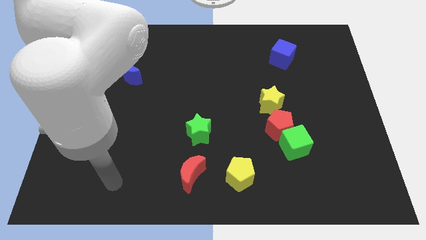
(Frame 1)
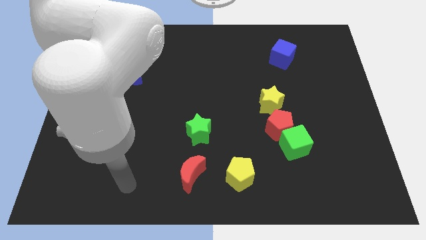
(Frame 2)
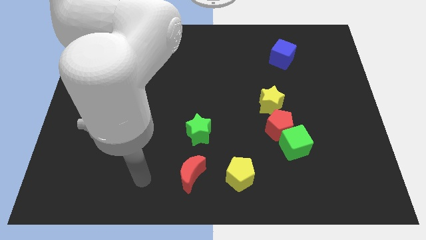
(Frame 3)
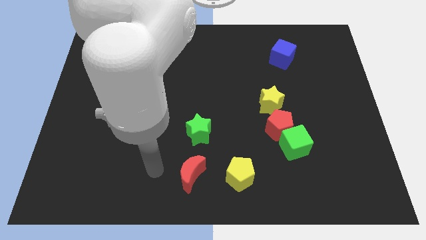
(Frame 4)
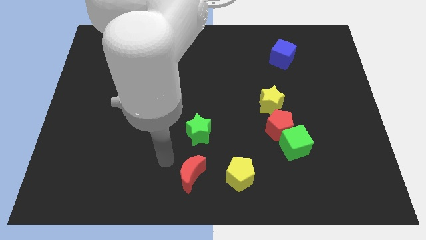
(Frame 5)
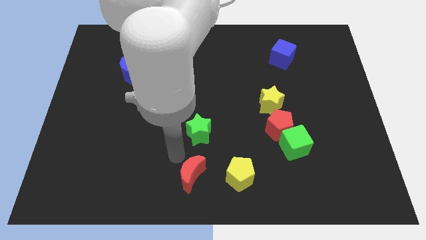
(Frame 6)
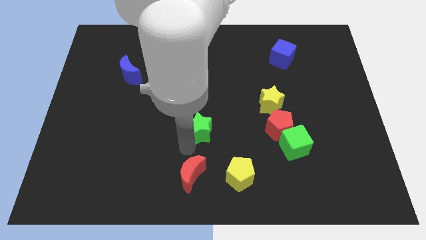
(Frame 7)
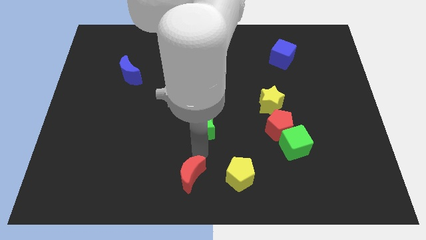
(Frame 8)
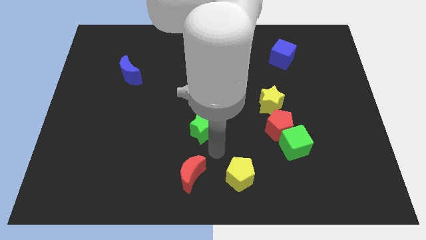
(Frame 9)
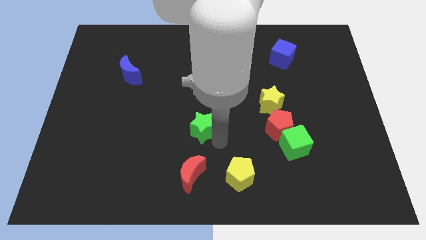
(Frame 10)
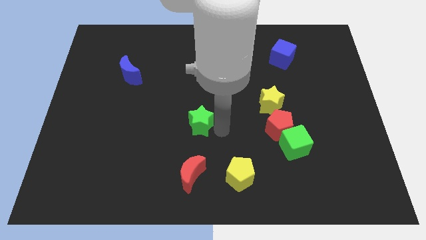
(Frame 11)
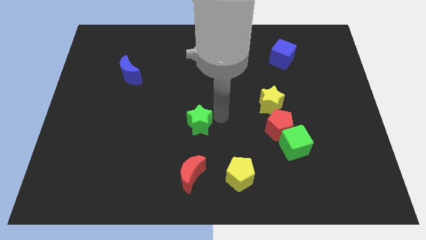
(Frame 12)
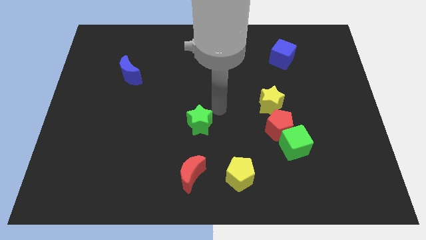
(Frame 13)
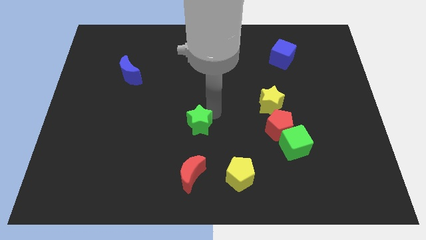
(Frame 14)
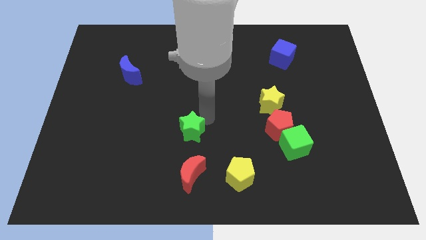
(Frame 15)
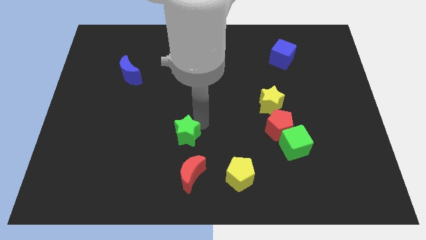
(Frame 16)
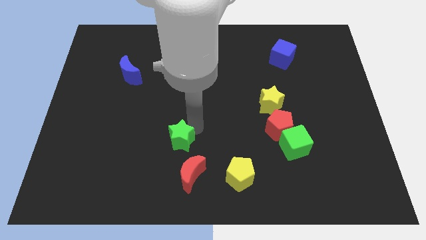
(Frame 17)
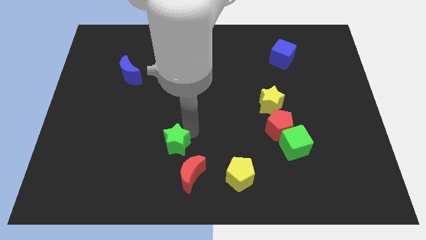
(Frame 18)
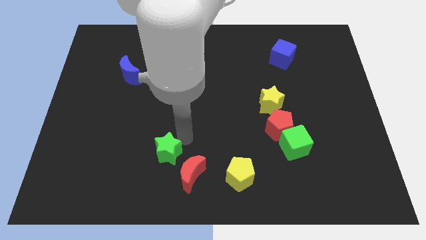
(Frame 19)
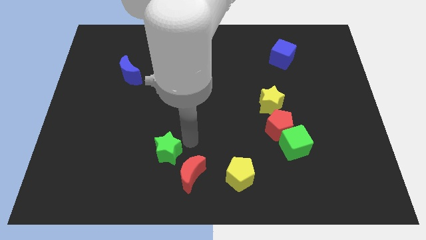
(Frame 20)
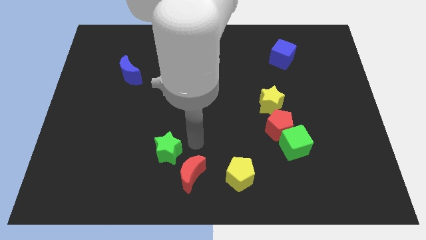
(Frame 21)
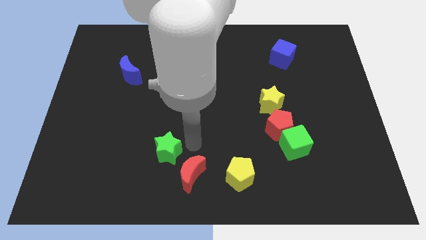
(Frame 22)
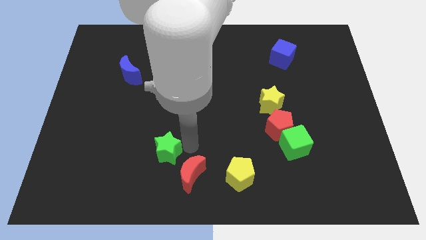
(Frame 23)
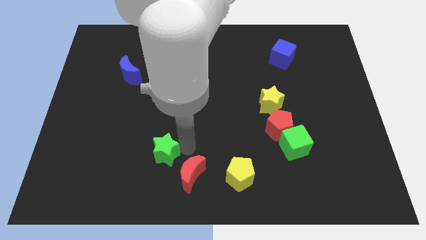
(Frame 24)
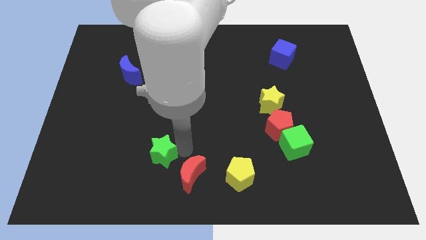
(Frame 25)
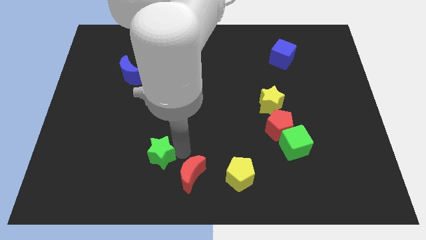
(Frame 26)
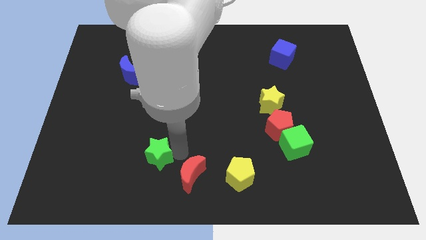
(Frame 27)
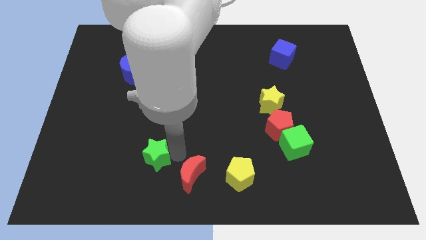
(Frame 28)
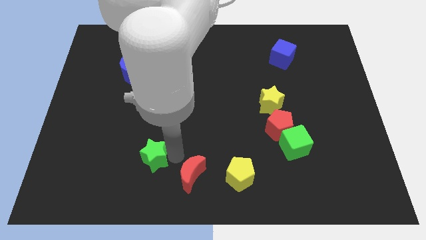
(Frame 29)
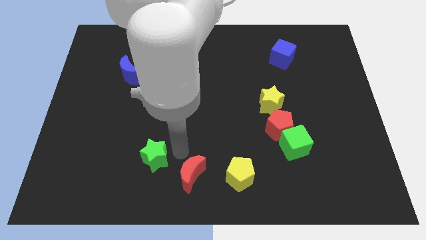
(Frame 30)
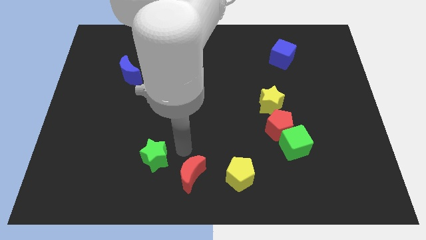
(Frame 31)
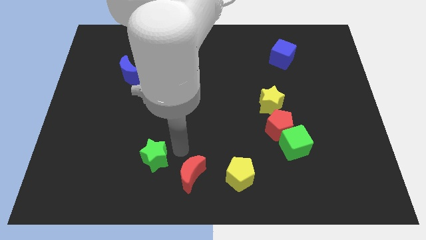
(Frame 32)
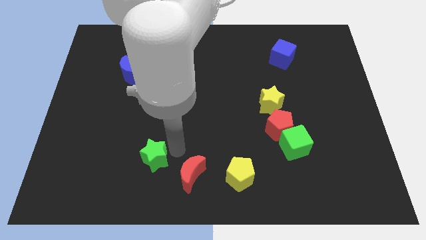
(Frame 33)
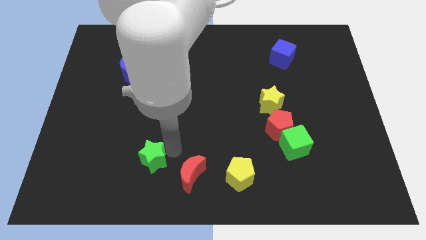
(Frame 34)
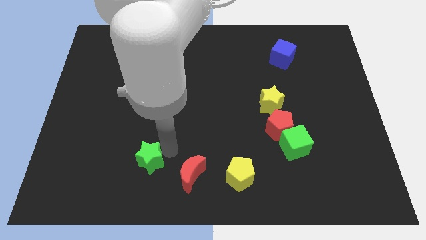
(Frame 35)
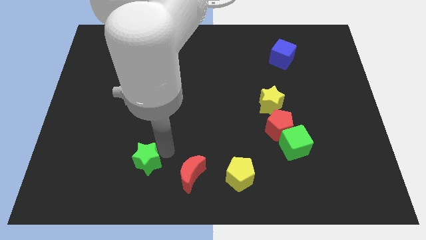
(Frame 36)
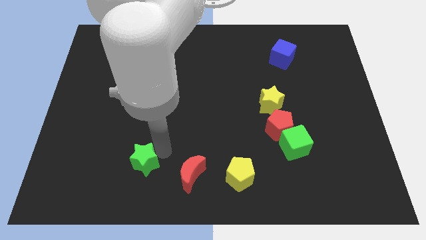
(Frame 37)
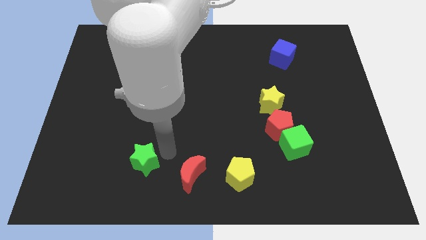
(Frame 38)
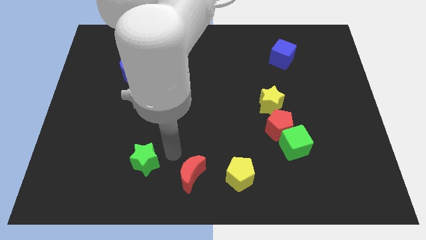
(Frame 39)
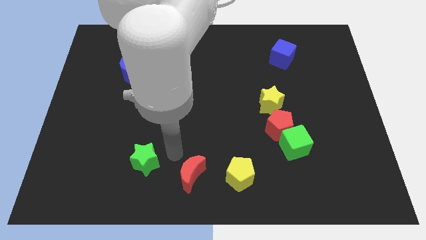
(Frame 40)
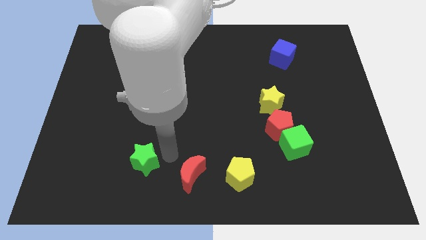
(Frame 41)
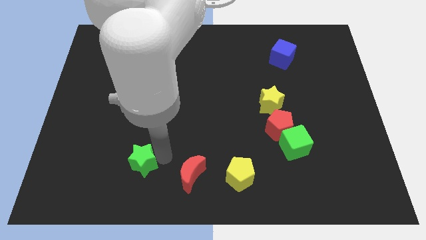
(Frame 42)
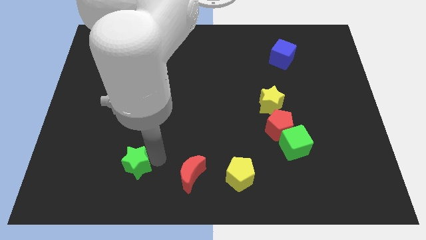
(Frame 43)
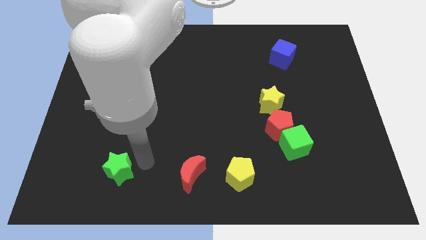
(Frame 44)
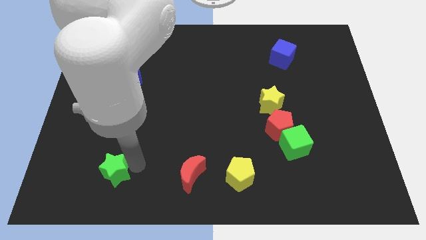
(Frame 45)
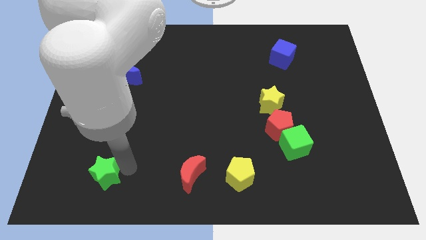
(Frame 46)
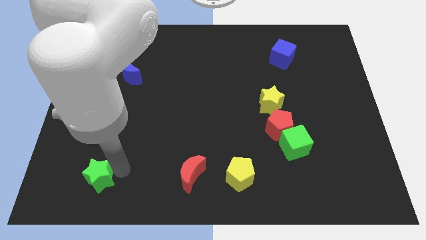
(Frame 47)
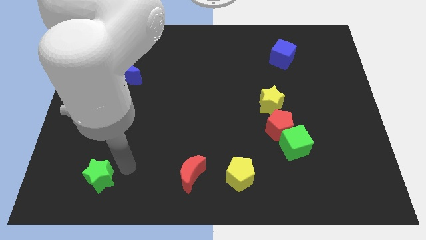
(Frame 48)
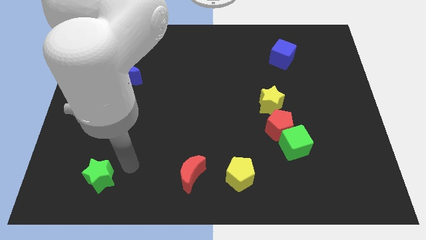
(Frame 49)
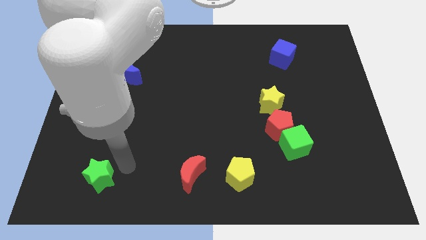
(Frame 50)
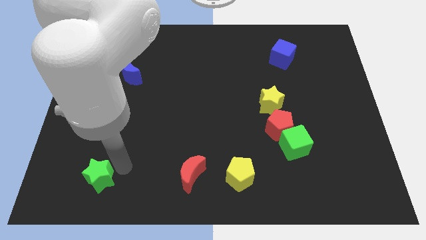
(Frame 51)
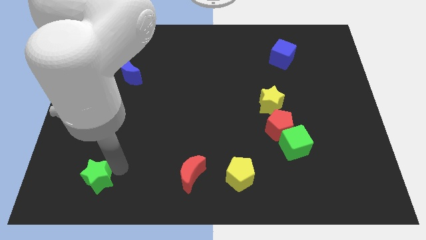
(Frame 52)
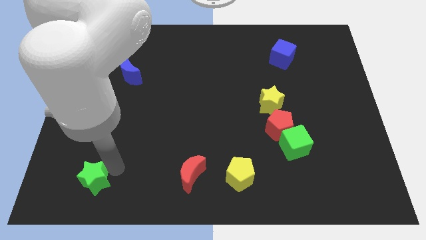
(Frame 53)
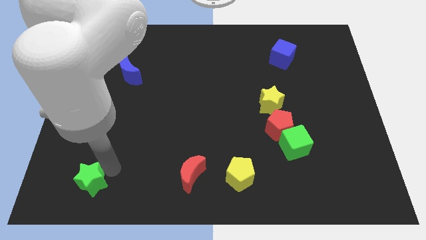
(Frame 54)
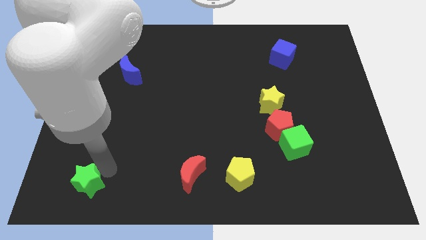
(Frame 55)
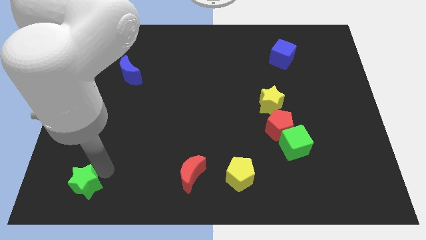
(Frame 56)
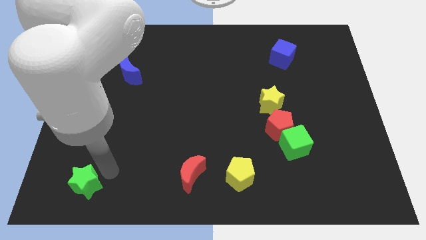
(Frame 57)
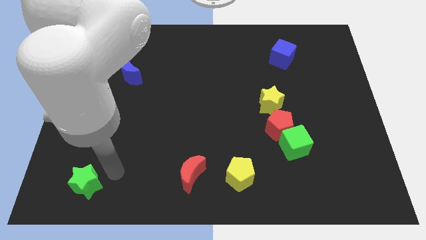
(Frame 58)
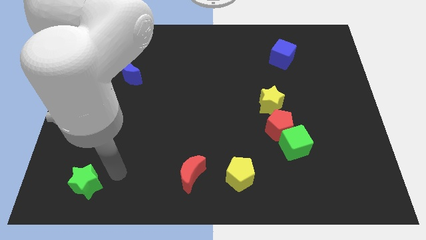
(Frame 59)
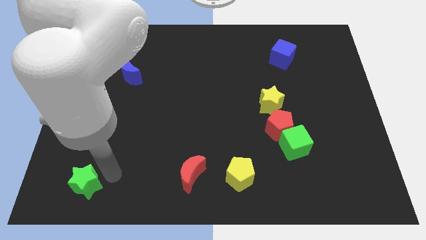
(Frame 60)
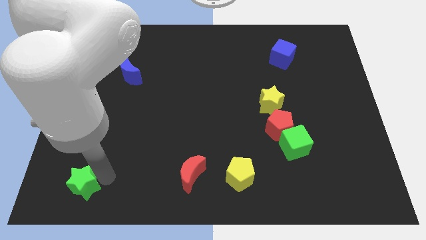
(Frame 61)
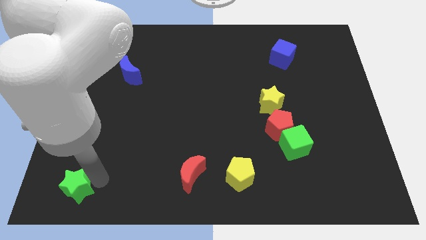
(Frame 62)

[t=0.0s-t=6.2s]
move the green star to the bottom left

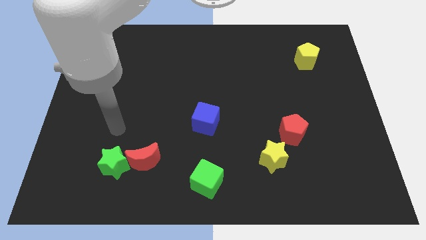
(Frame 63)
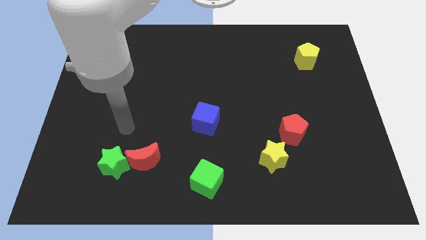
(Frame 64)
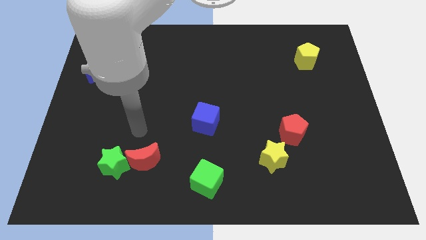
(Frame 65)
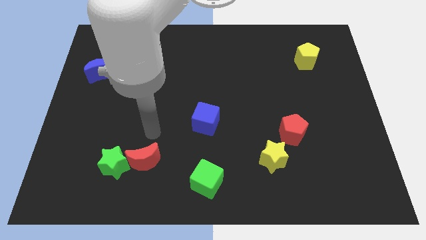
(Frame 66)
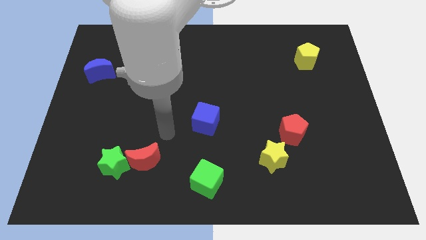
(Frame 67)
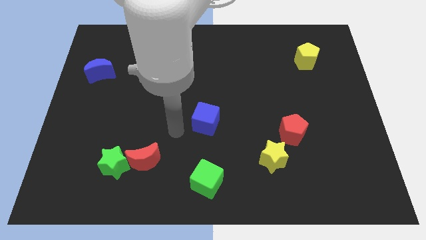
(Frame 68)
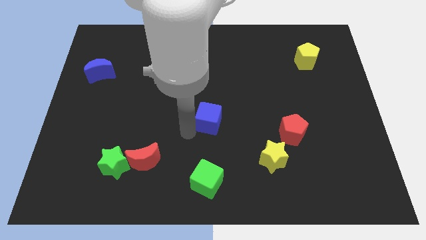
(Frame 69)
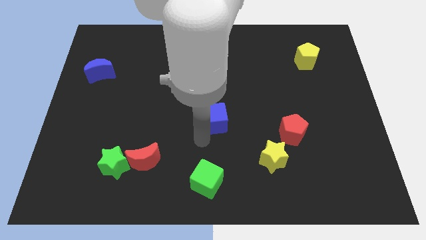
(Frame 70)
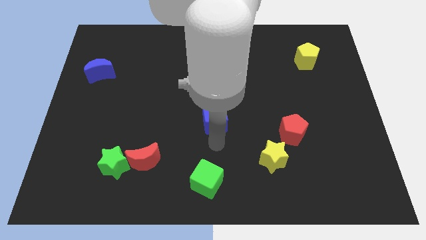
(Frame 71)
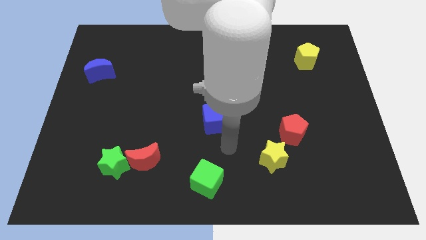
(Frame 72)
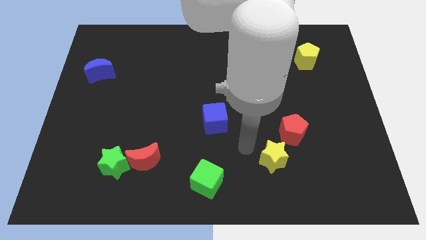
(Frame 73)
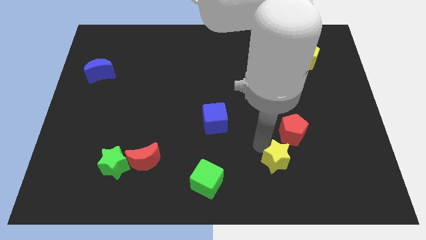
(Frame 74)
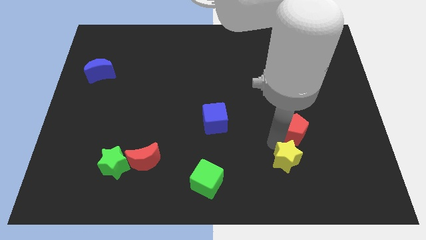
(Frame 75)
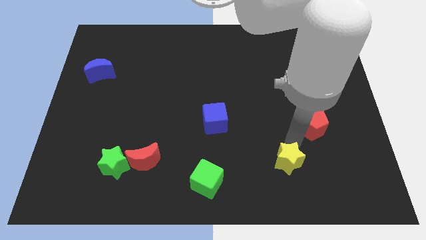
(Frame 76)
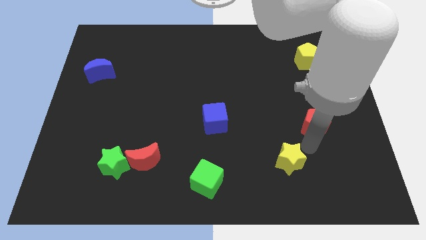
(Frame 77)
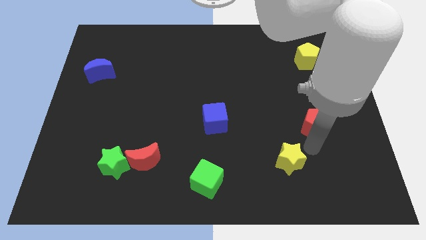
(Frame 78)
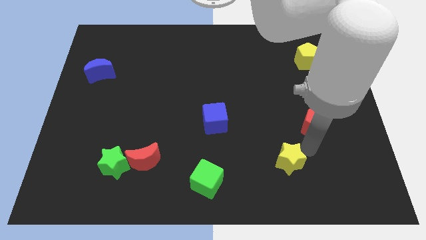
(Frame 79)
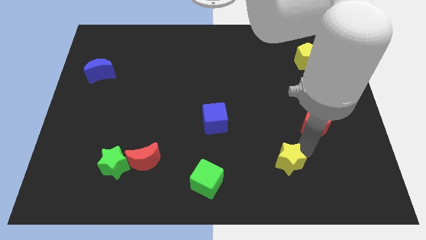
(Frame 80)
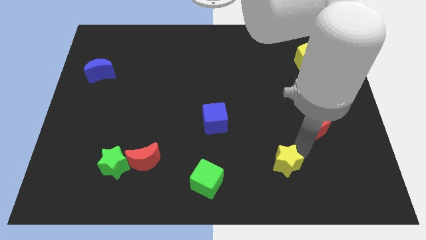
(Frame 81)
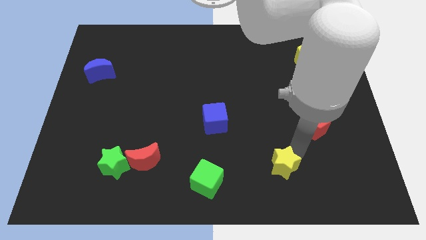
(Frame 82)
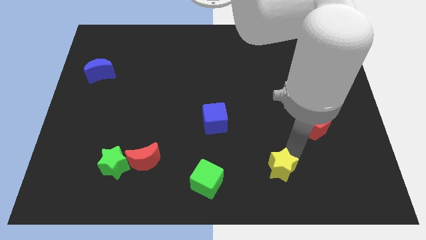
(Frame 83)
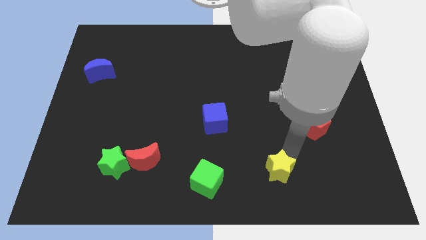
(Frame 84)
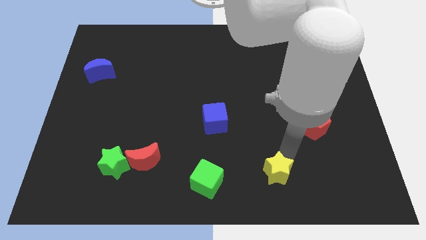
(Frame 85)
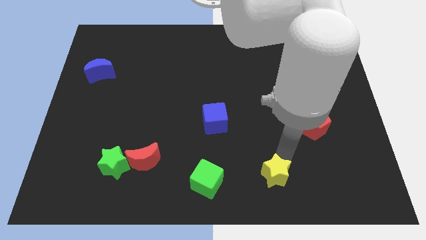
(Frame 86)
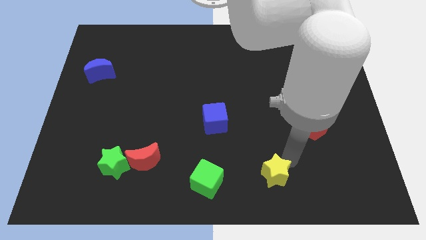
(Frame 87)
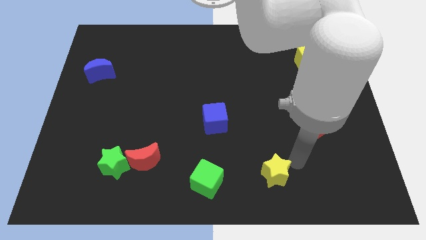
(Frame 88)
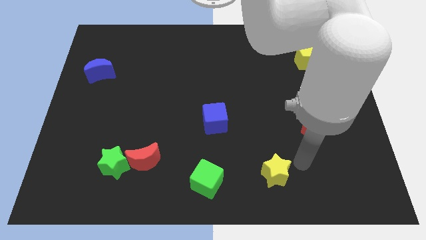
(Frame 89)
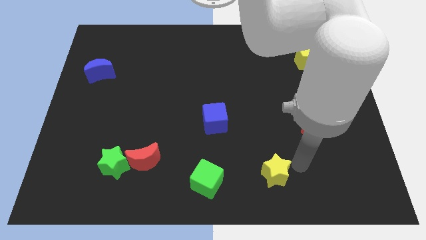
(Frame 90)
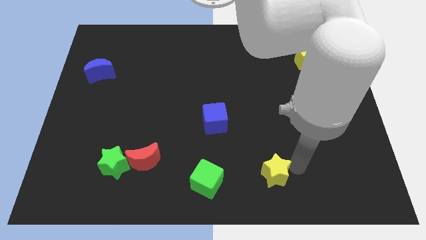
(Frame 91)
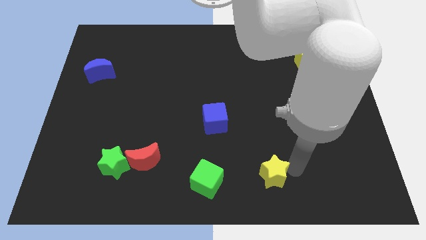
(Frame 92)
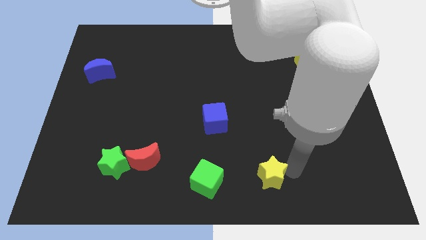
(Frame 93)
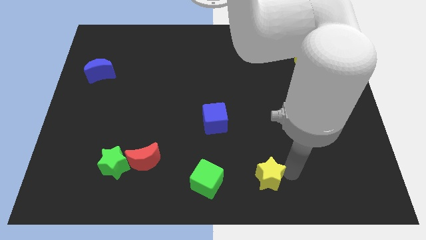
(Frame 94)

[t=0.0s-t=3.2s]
push the yellow star to the bottom side
